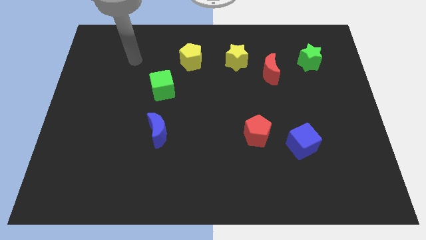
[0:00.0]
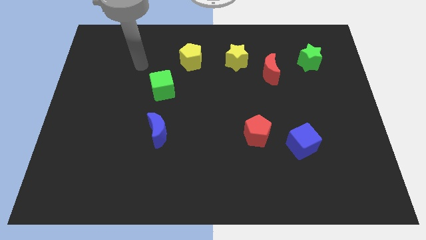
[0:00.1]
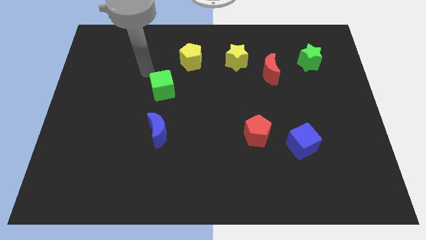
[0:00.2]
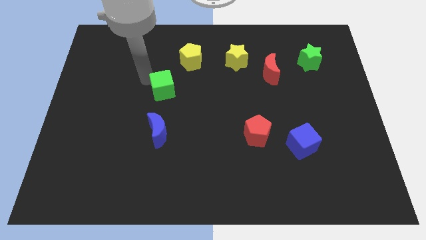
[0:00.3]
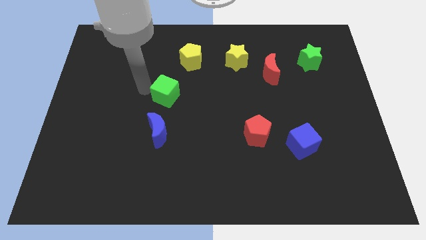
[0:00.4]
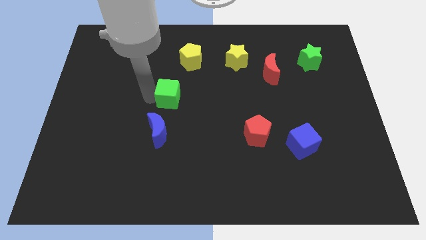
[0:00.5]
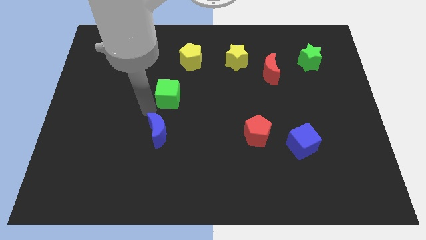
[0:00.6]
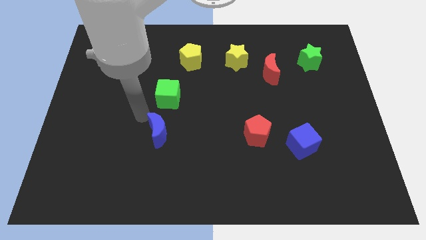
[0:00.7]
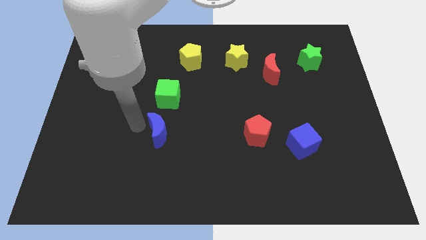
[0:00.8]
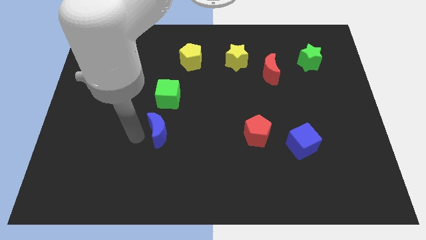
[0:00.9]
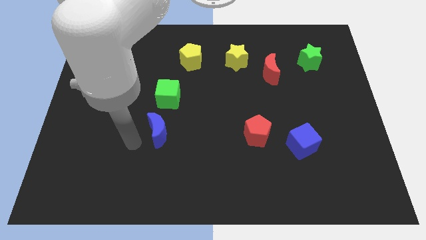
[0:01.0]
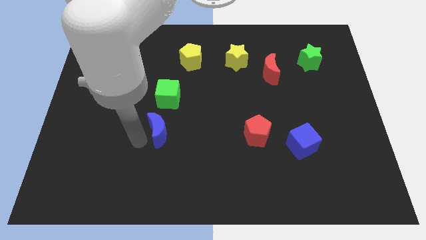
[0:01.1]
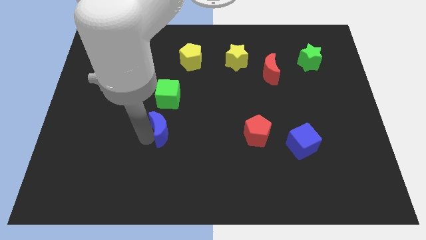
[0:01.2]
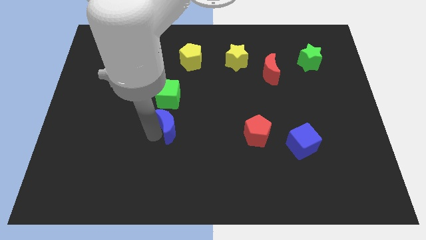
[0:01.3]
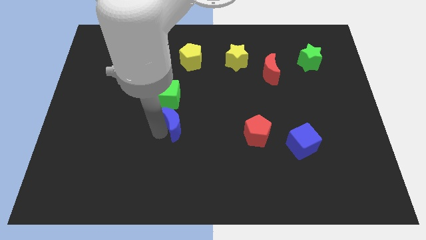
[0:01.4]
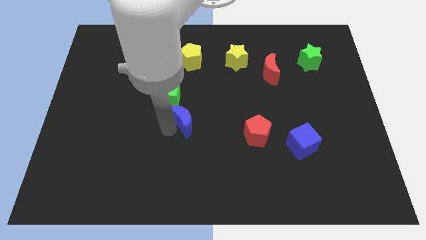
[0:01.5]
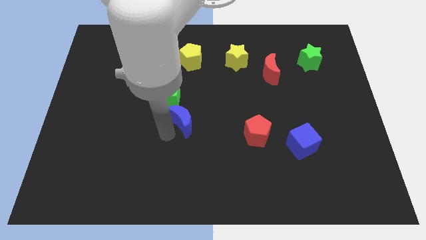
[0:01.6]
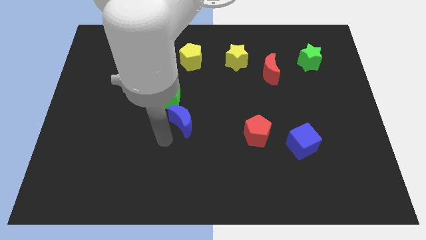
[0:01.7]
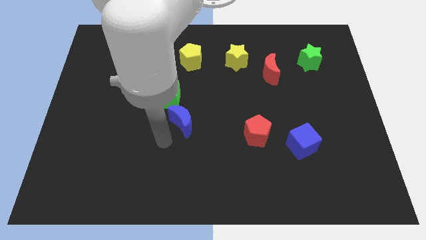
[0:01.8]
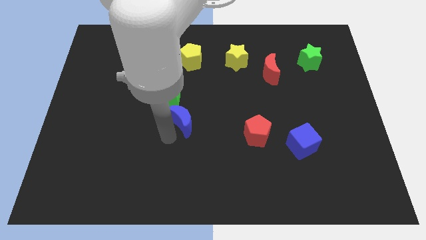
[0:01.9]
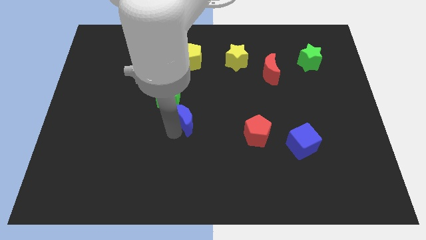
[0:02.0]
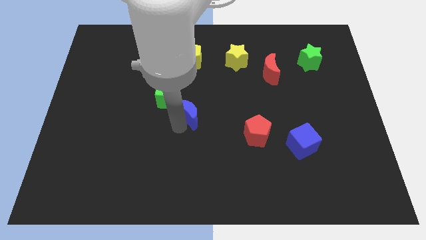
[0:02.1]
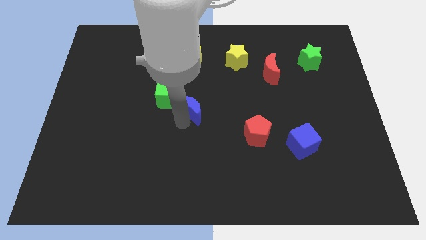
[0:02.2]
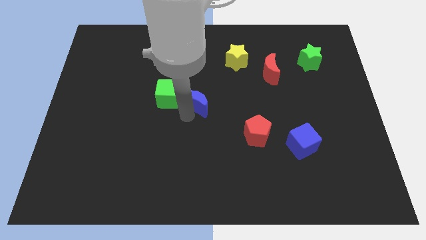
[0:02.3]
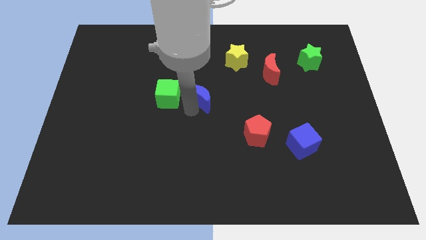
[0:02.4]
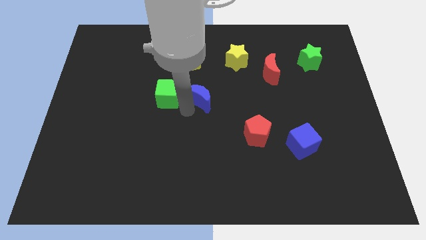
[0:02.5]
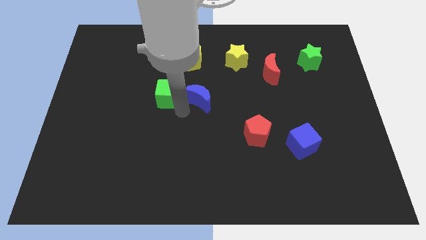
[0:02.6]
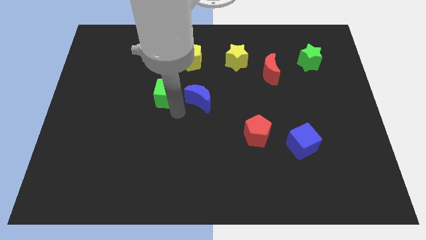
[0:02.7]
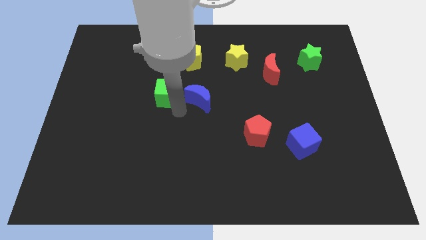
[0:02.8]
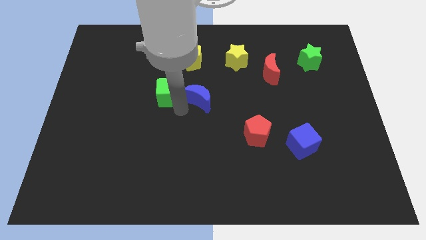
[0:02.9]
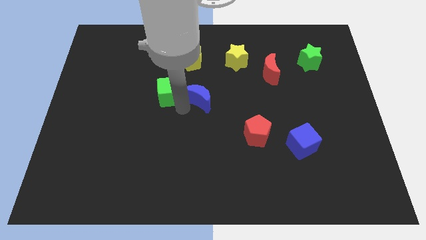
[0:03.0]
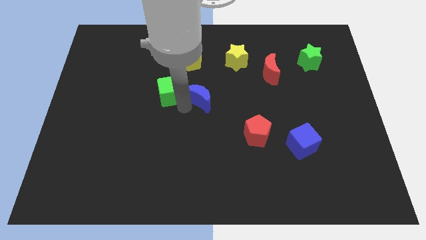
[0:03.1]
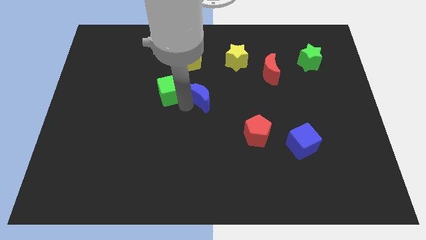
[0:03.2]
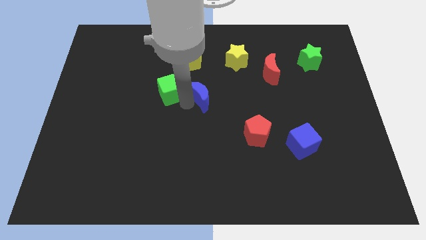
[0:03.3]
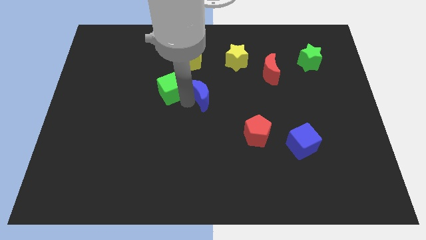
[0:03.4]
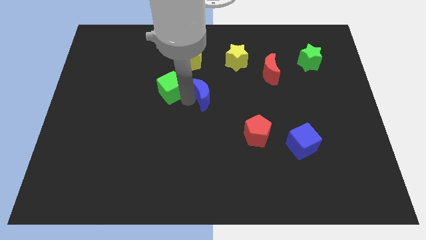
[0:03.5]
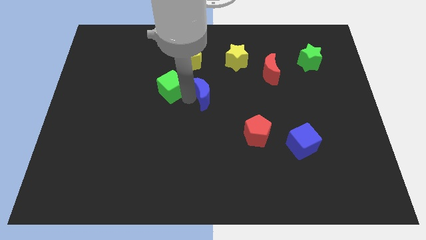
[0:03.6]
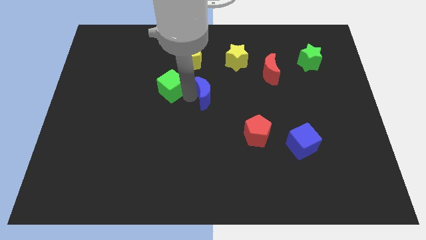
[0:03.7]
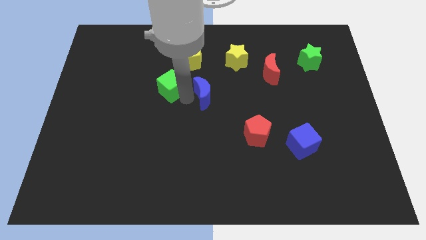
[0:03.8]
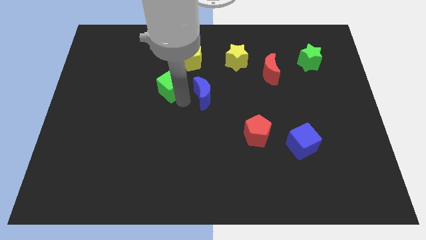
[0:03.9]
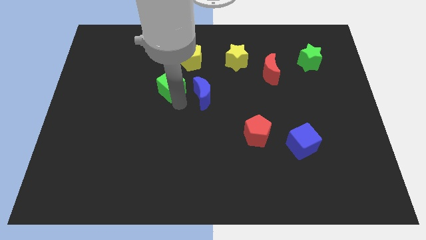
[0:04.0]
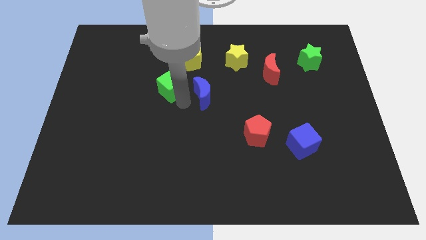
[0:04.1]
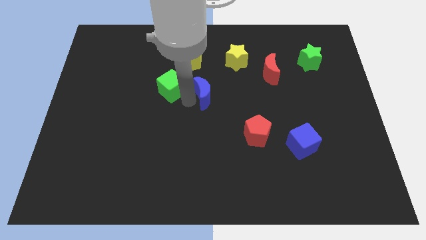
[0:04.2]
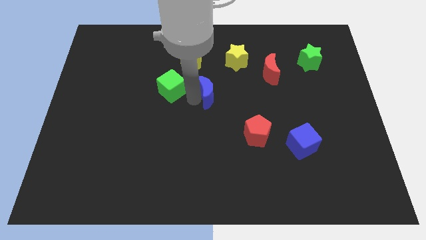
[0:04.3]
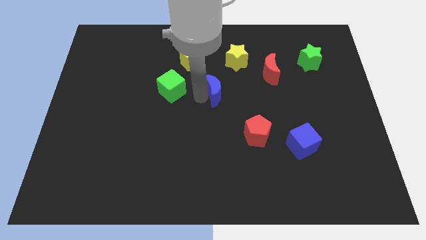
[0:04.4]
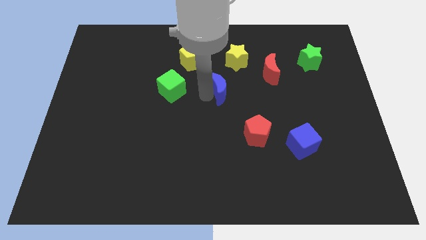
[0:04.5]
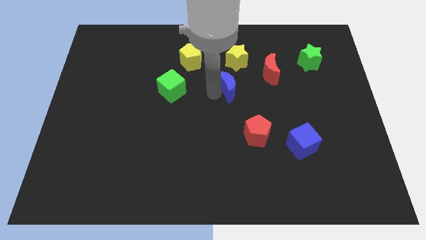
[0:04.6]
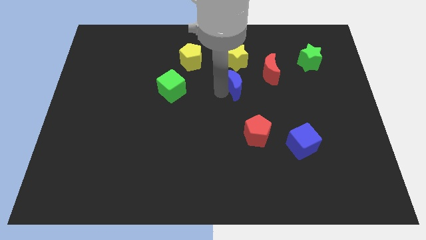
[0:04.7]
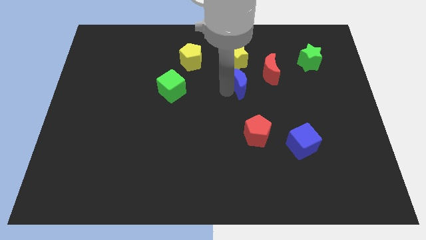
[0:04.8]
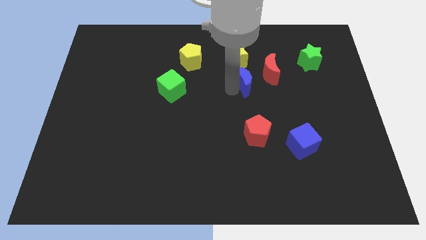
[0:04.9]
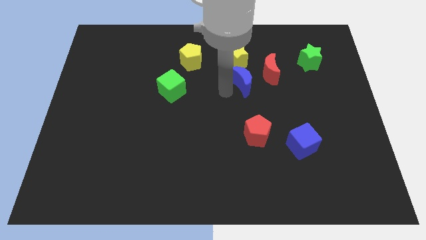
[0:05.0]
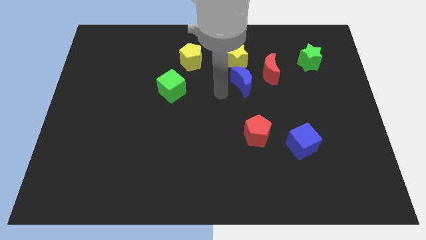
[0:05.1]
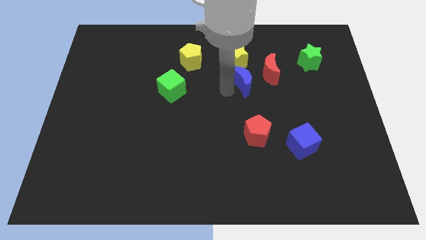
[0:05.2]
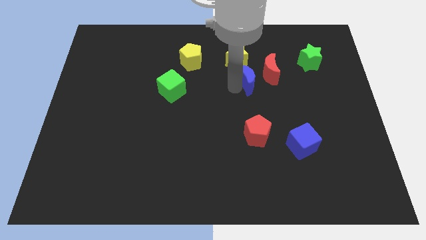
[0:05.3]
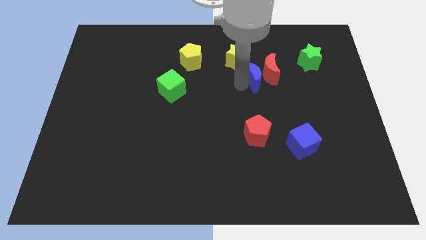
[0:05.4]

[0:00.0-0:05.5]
move the blue moon close to the red moon

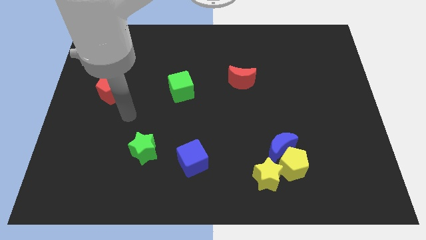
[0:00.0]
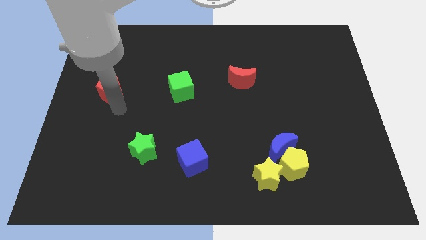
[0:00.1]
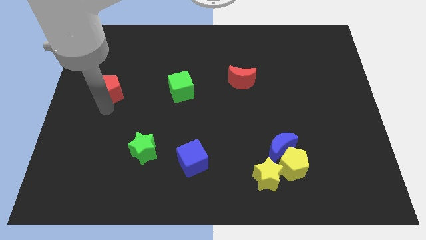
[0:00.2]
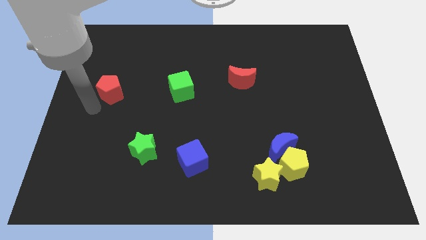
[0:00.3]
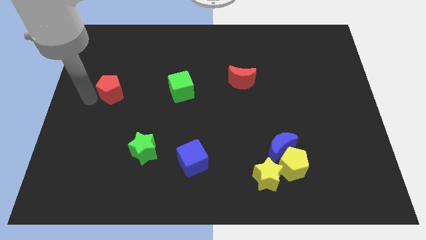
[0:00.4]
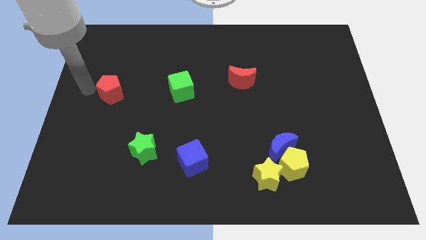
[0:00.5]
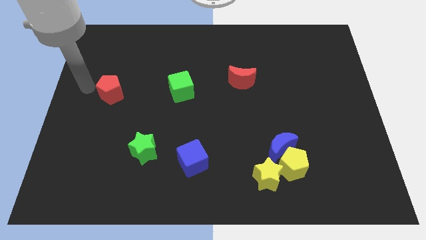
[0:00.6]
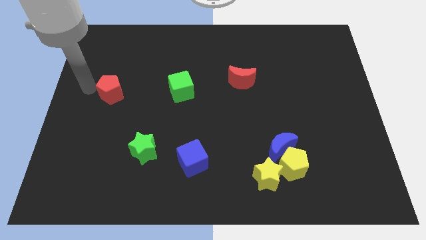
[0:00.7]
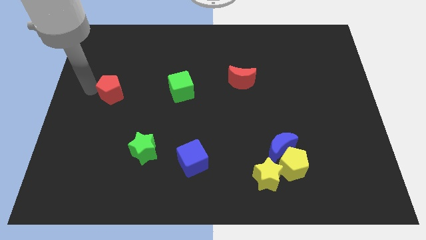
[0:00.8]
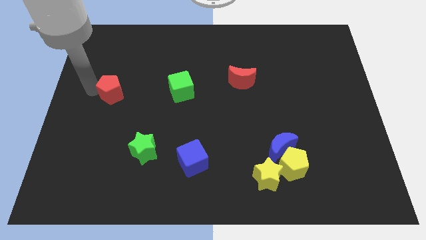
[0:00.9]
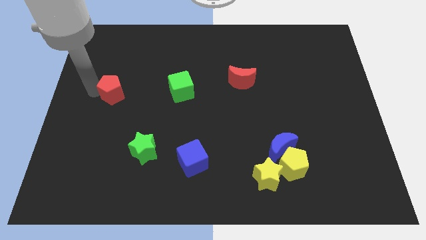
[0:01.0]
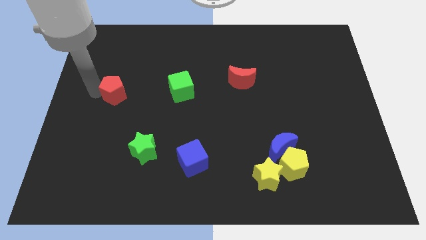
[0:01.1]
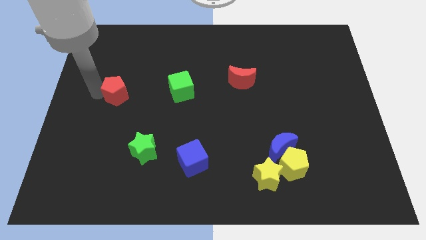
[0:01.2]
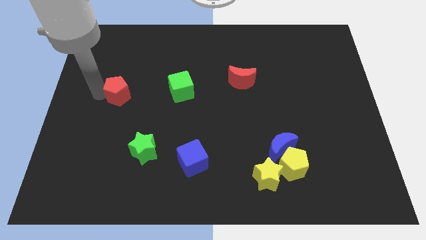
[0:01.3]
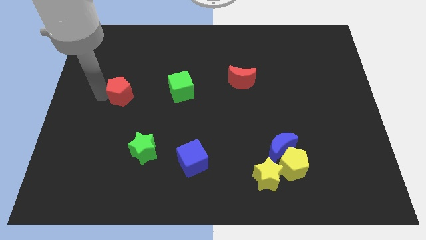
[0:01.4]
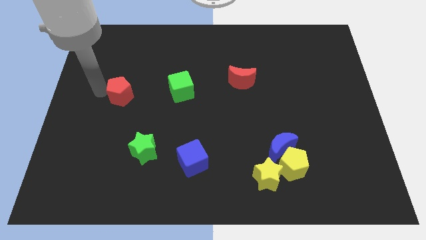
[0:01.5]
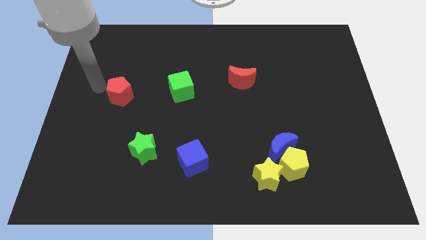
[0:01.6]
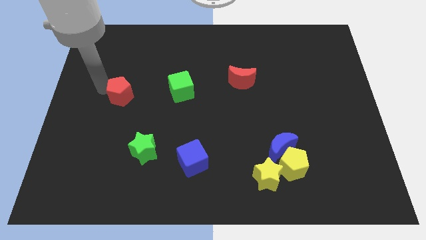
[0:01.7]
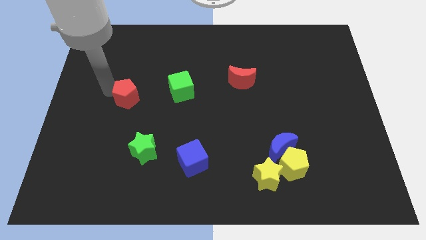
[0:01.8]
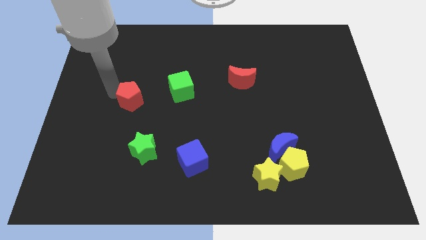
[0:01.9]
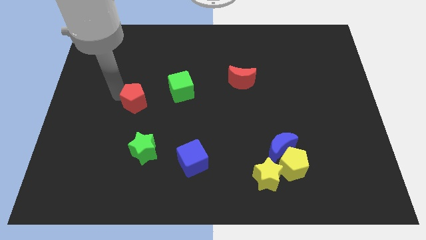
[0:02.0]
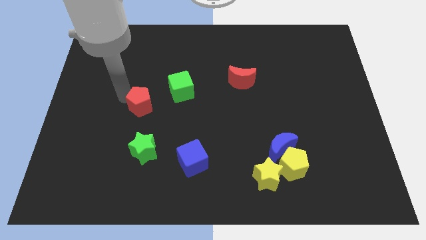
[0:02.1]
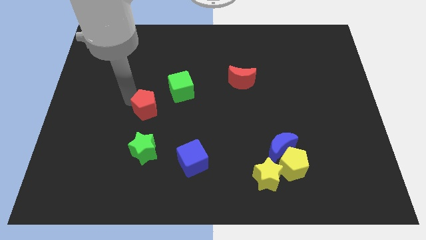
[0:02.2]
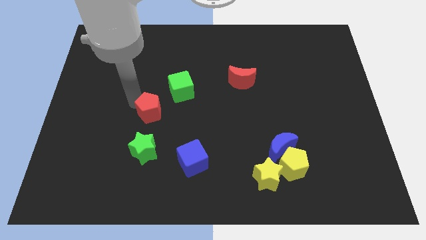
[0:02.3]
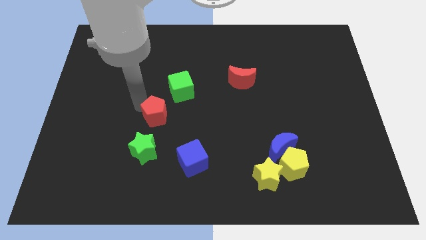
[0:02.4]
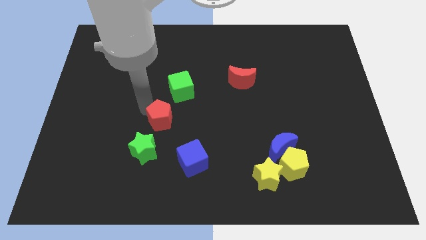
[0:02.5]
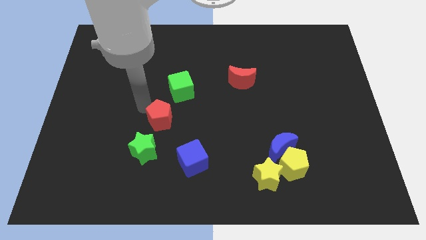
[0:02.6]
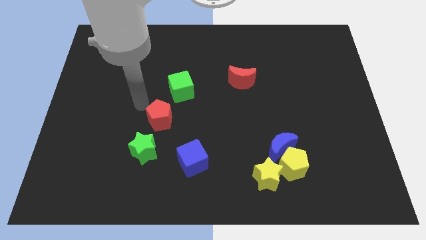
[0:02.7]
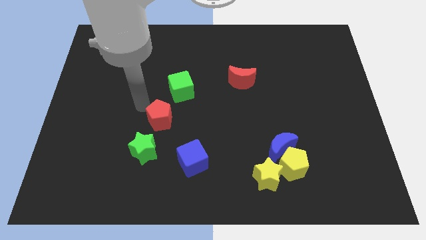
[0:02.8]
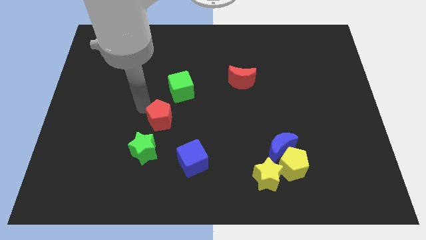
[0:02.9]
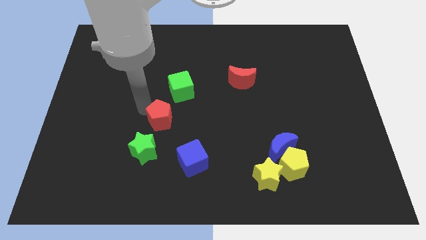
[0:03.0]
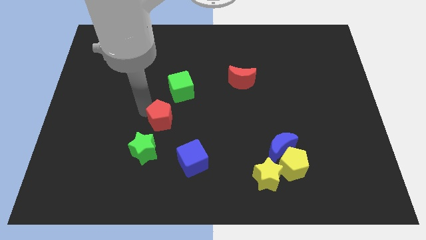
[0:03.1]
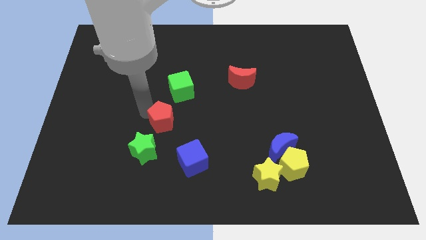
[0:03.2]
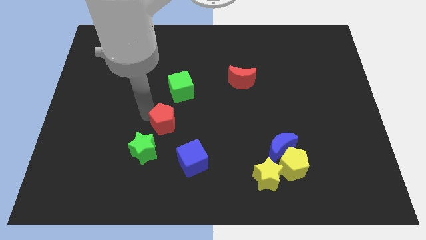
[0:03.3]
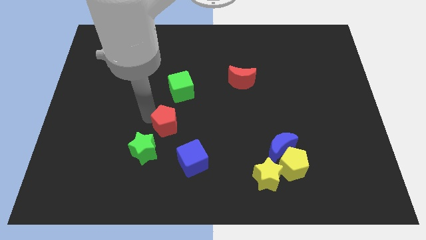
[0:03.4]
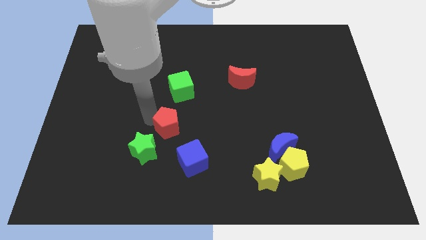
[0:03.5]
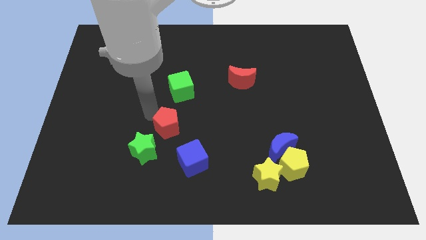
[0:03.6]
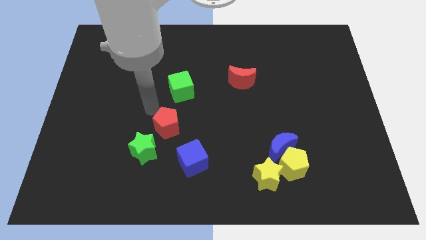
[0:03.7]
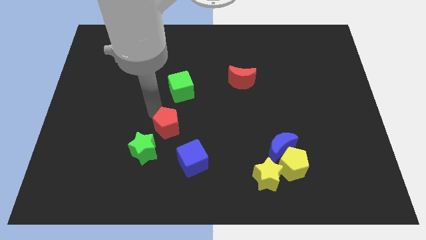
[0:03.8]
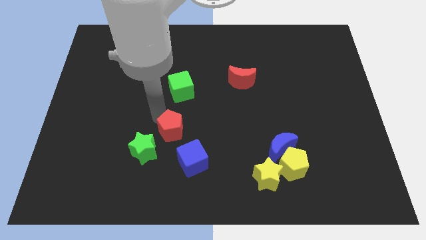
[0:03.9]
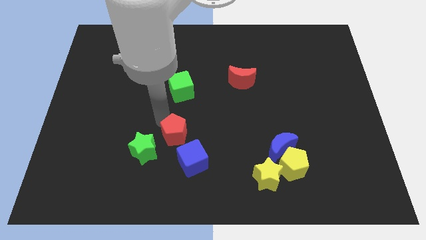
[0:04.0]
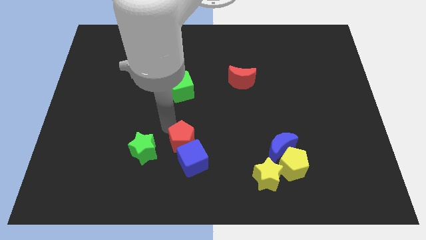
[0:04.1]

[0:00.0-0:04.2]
push the red pentagon close to the blue cube
